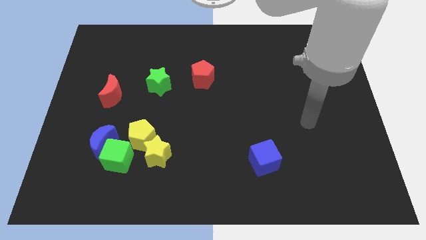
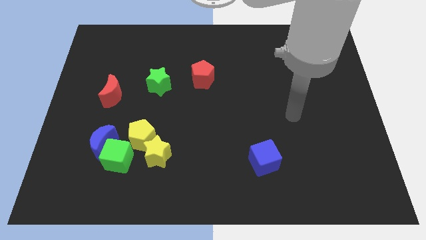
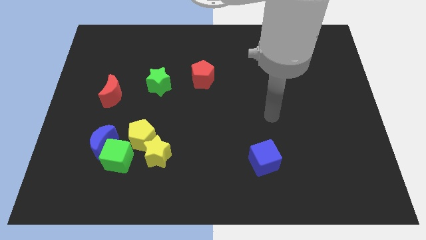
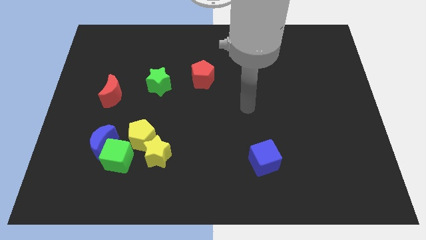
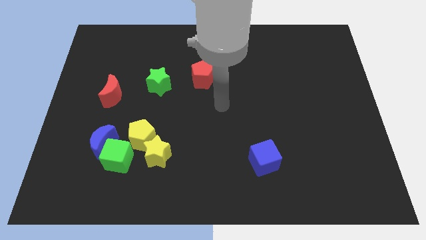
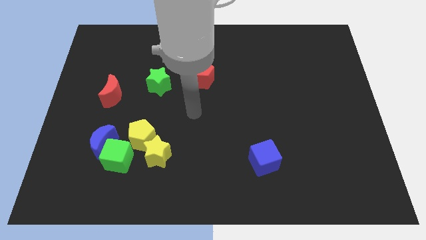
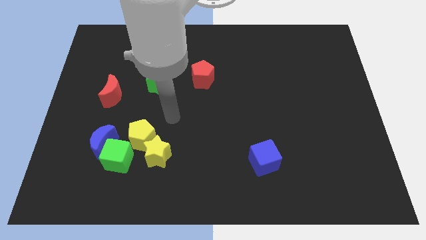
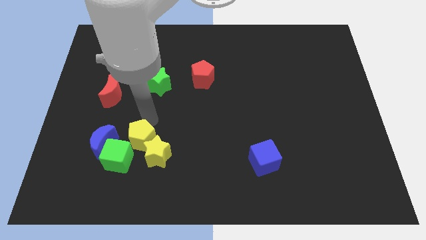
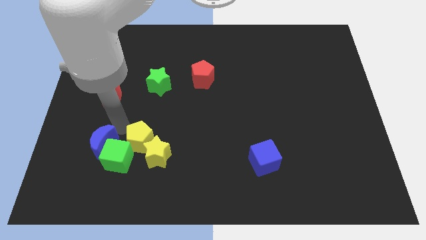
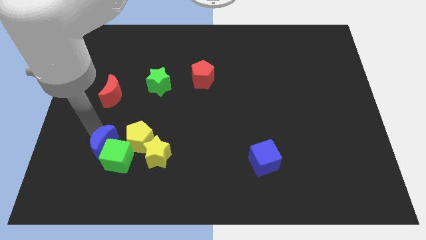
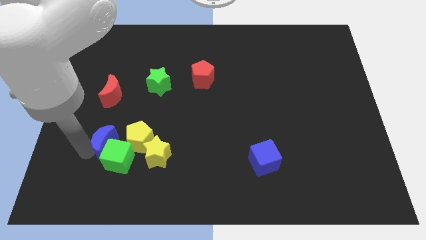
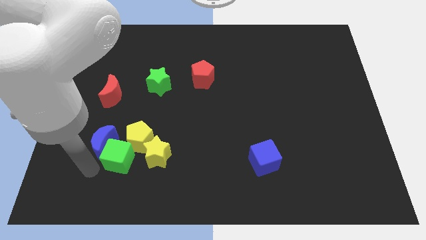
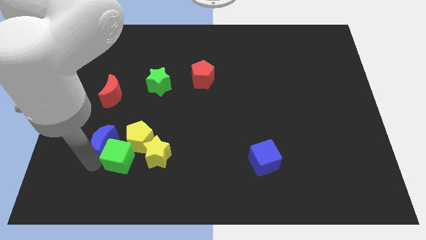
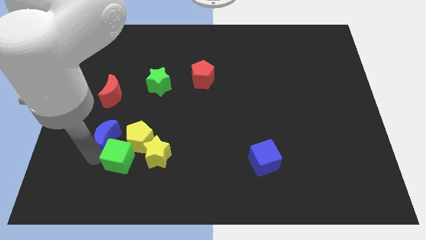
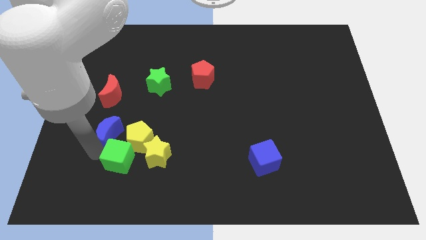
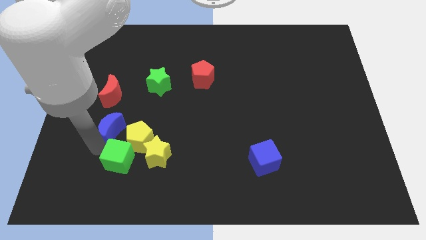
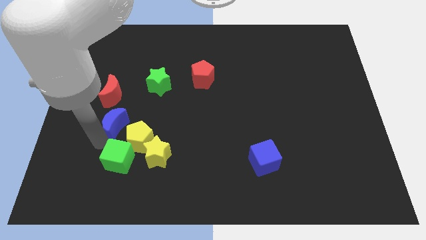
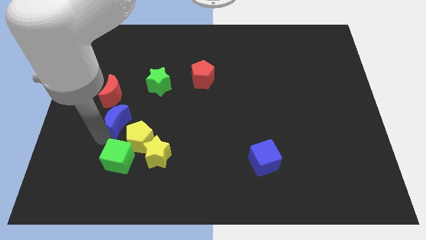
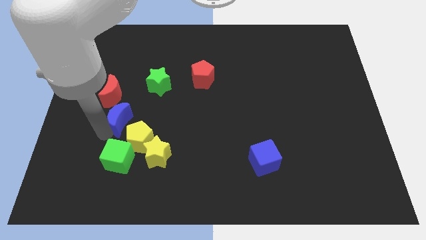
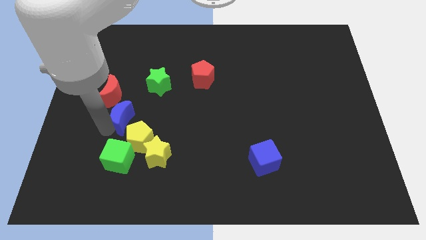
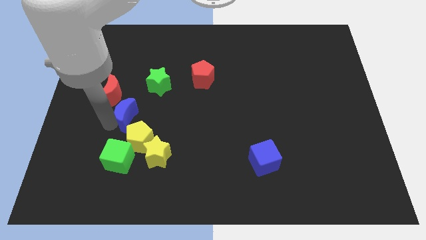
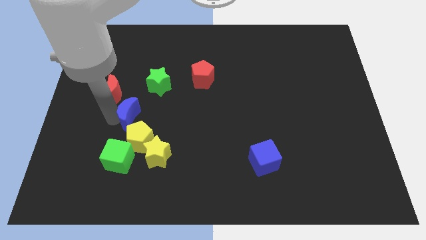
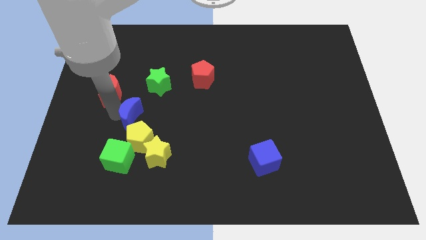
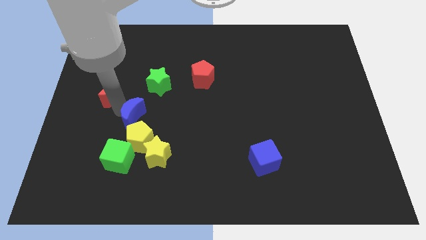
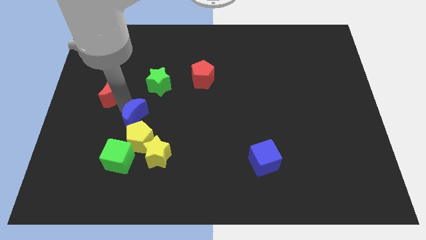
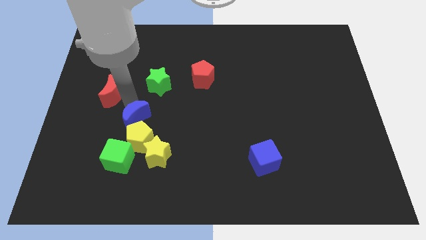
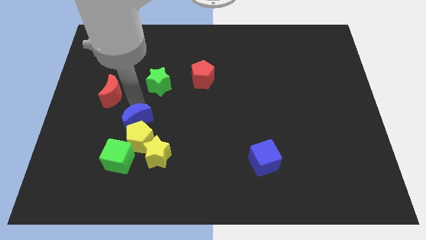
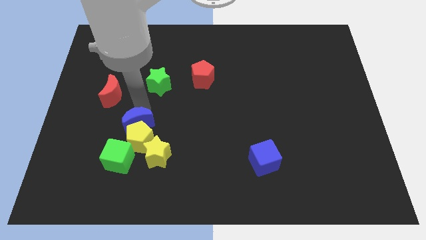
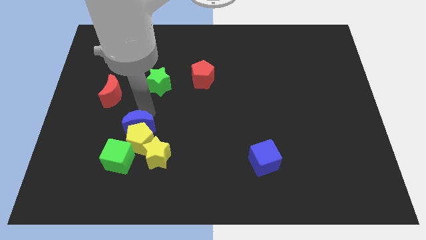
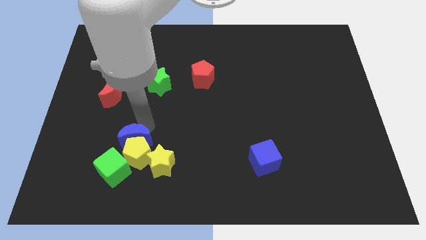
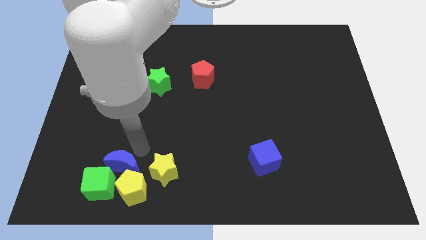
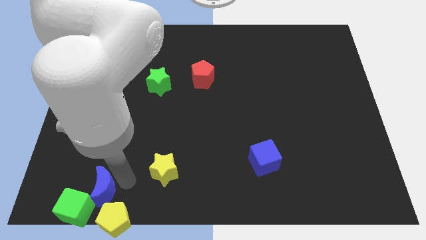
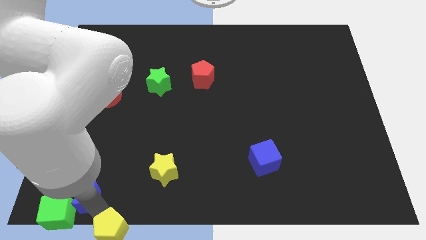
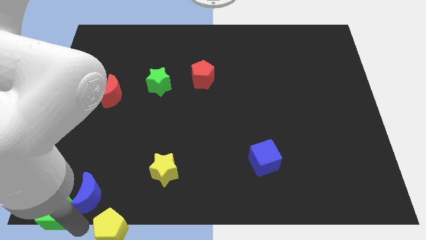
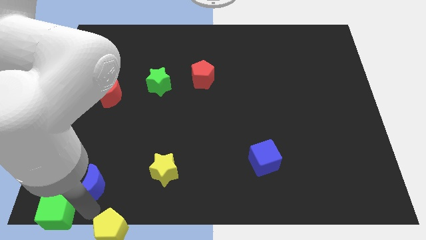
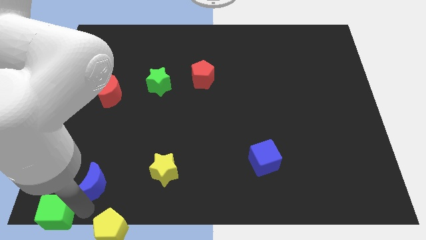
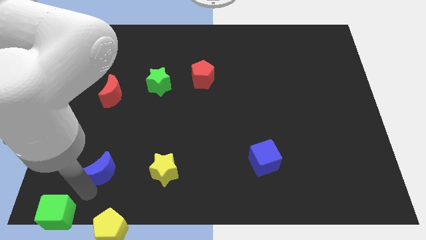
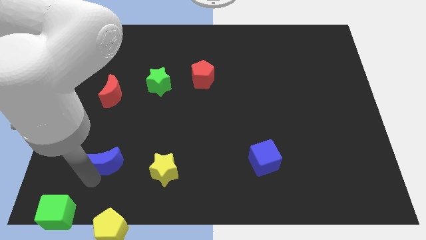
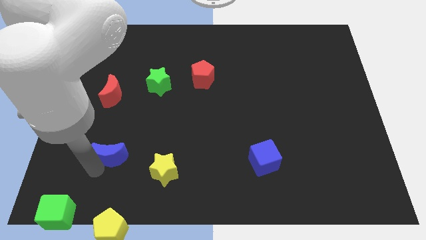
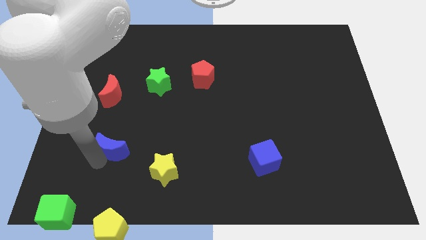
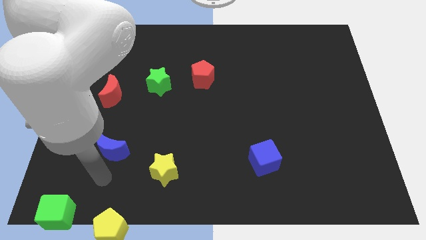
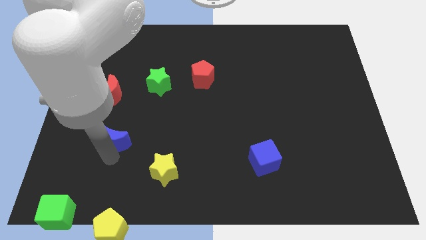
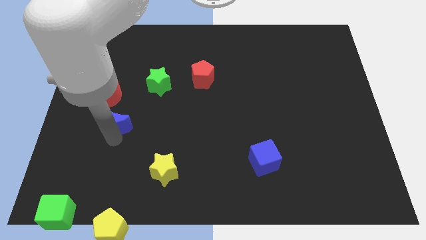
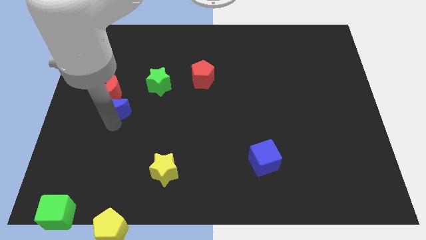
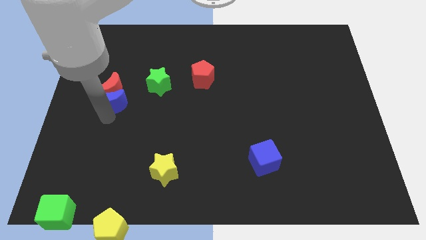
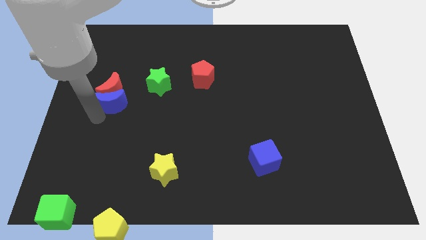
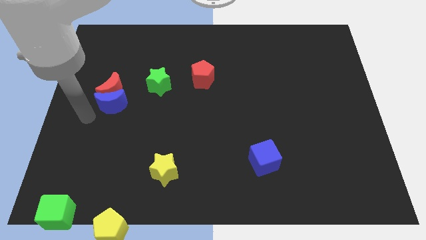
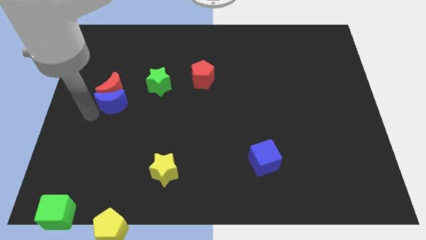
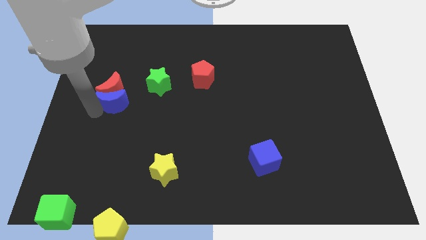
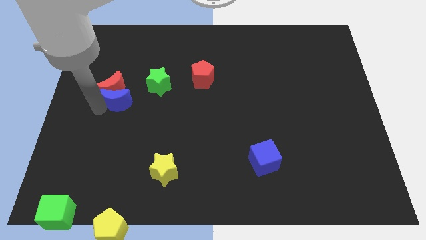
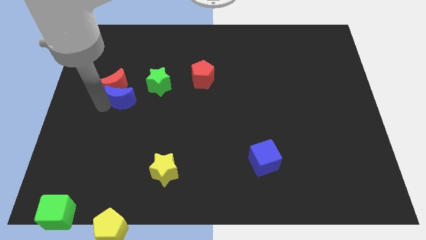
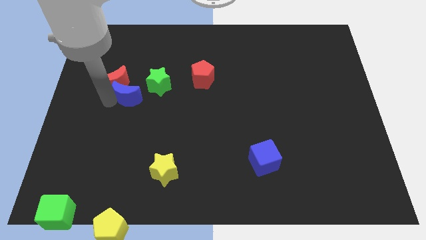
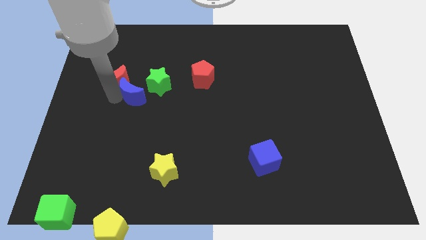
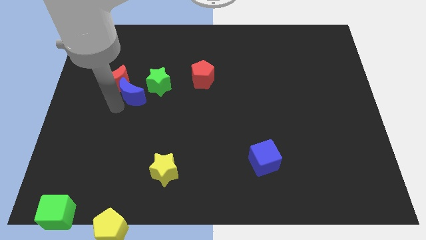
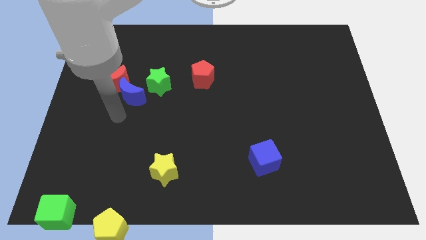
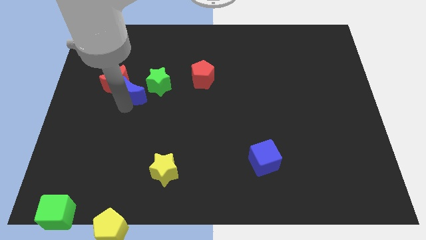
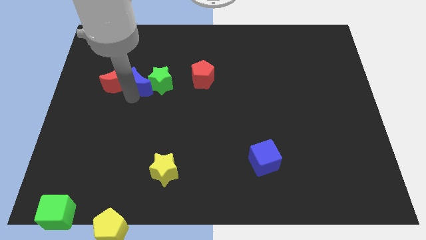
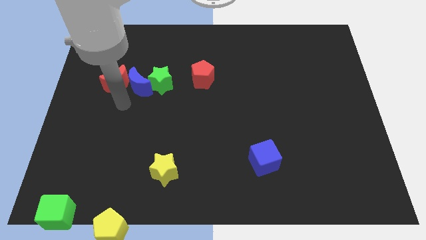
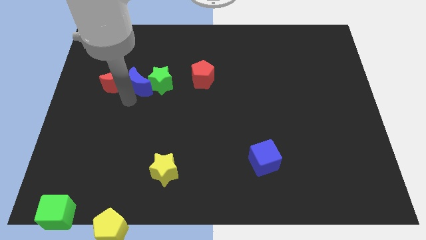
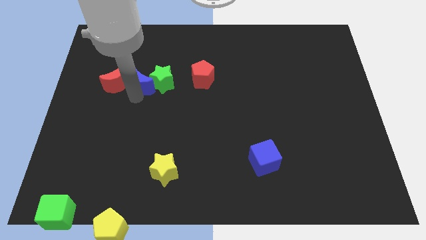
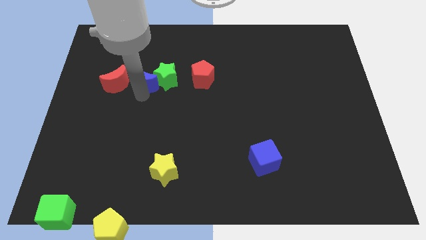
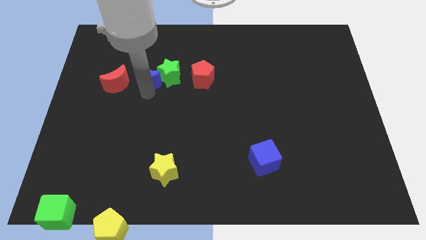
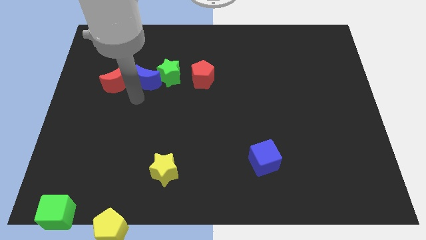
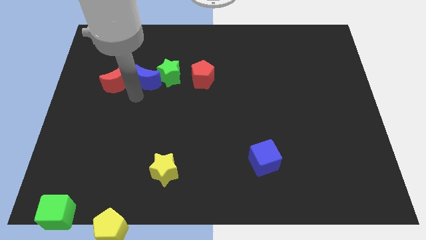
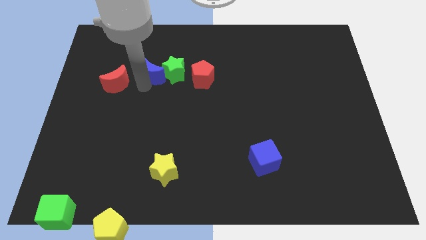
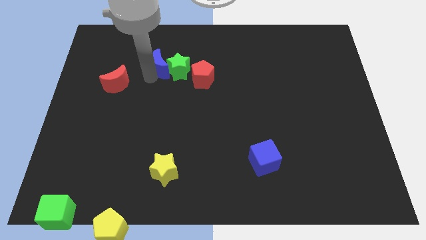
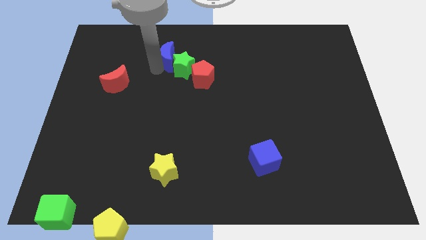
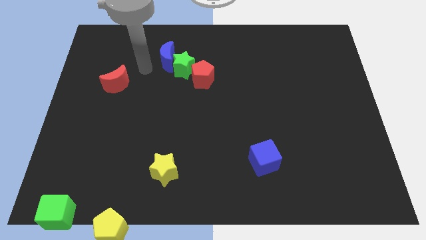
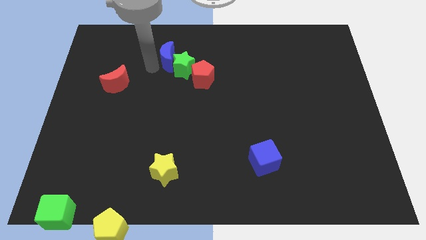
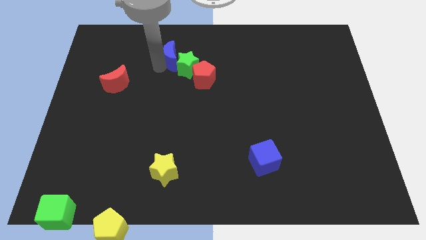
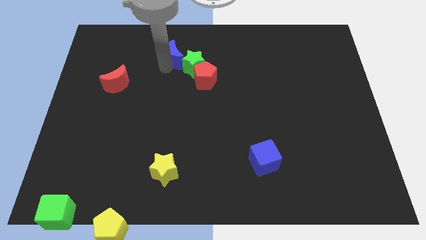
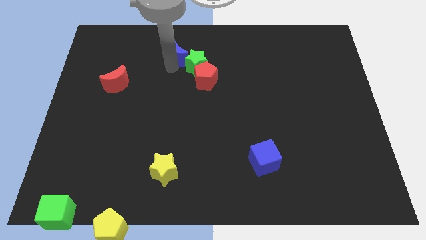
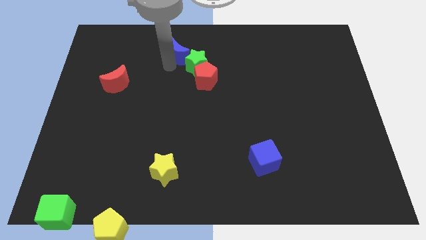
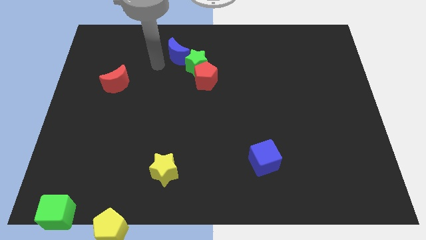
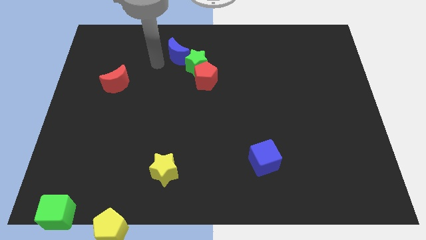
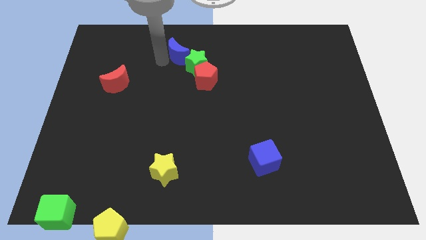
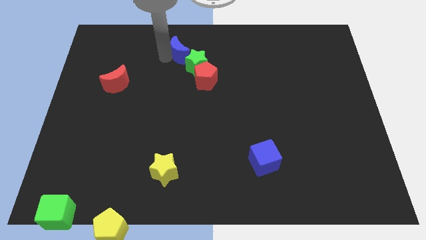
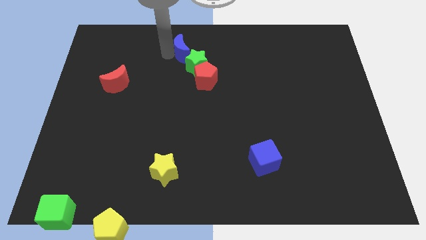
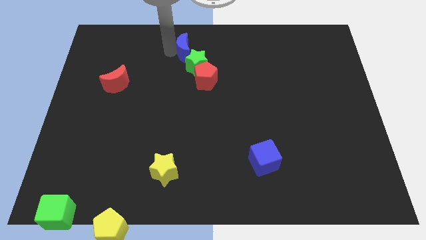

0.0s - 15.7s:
put the blue moon to the top side
